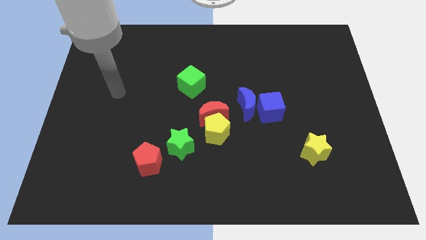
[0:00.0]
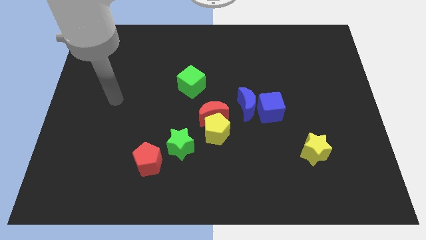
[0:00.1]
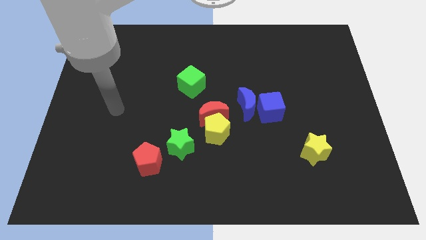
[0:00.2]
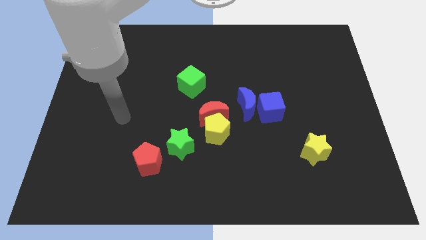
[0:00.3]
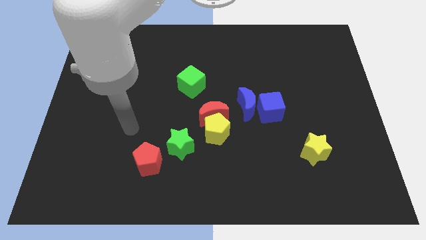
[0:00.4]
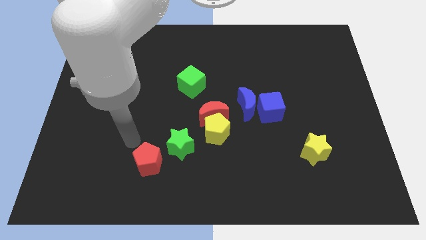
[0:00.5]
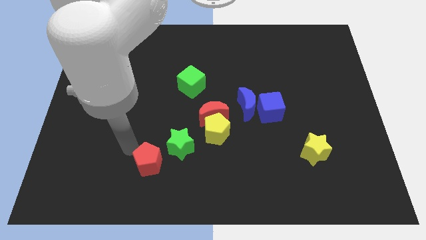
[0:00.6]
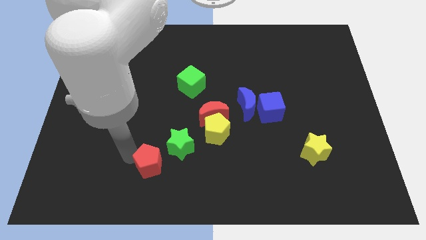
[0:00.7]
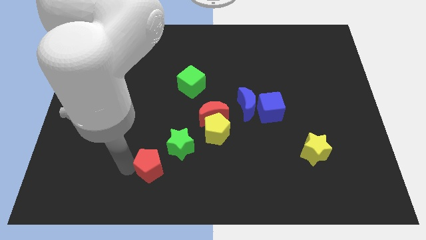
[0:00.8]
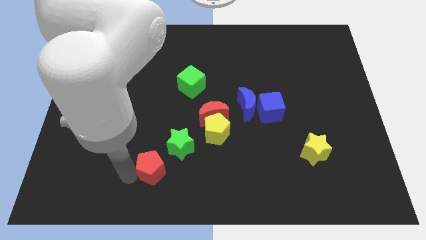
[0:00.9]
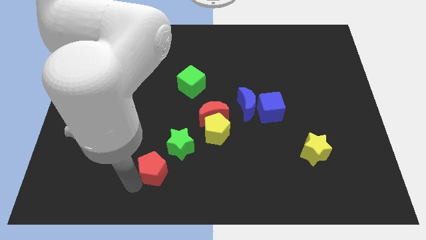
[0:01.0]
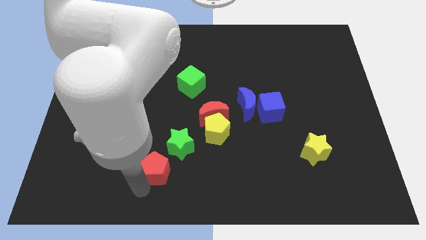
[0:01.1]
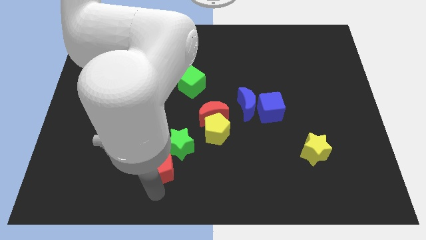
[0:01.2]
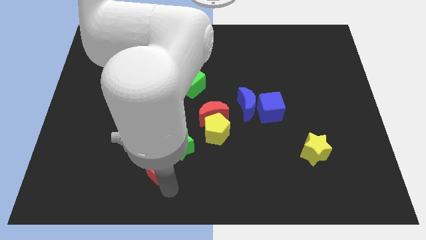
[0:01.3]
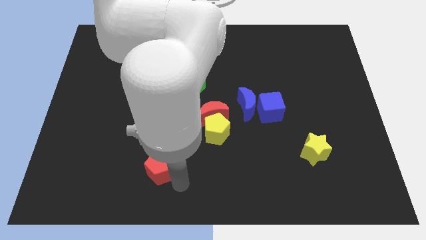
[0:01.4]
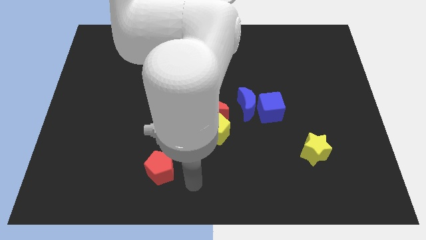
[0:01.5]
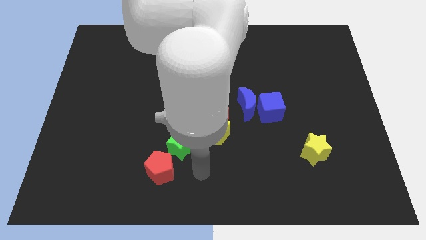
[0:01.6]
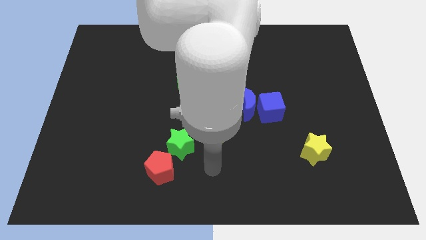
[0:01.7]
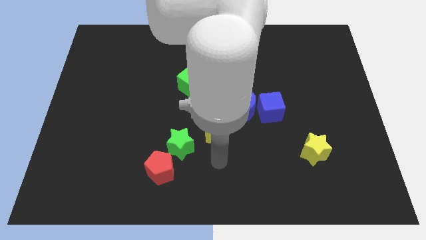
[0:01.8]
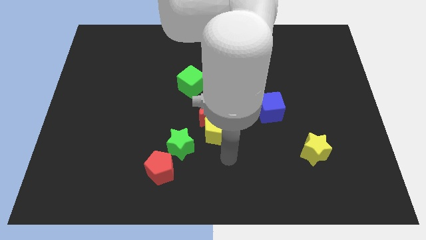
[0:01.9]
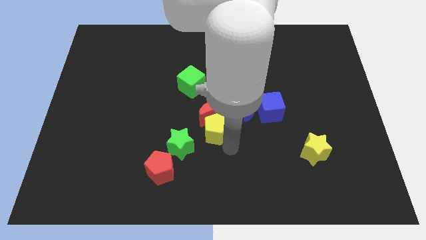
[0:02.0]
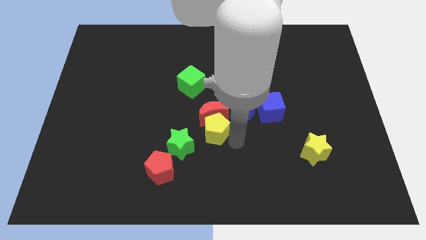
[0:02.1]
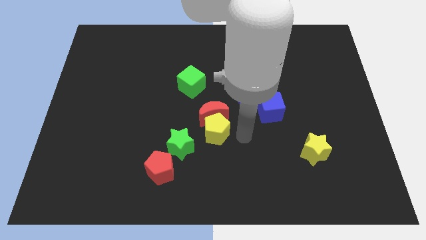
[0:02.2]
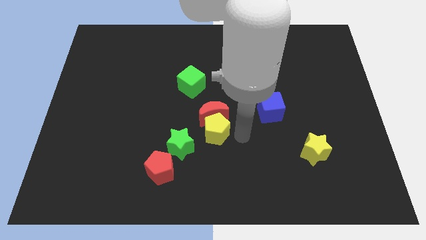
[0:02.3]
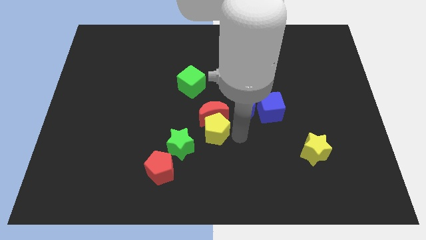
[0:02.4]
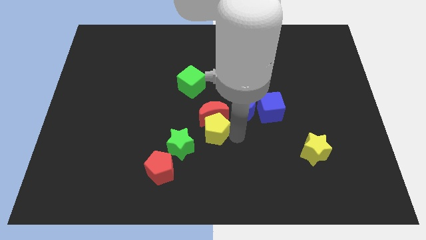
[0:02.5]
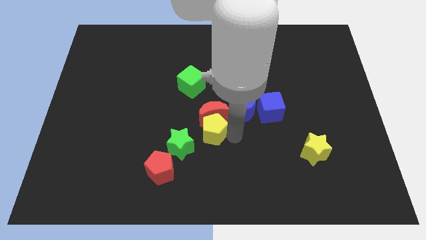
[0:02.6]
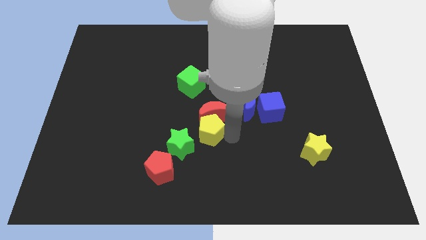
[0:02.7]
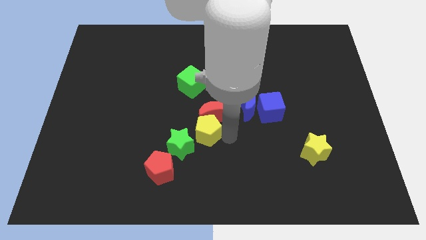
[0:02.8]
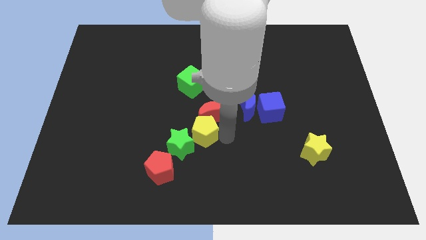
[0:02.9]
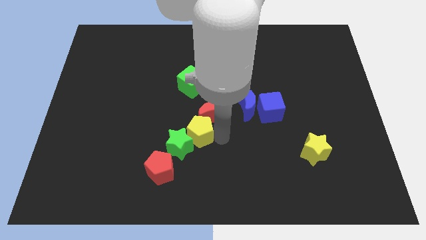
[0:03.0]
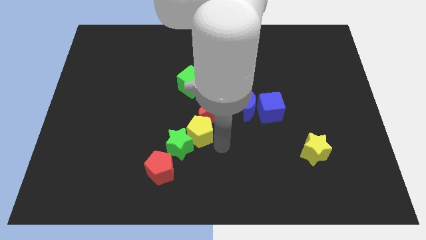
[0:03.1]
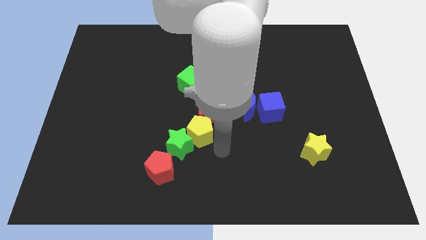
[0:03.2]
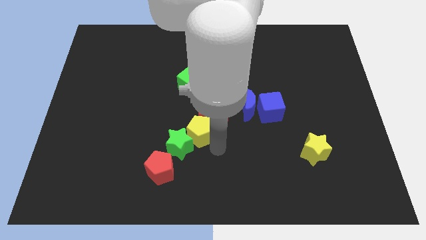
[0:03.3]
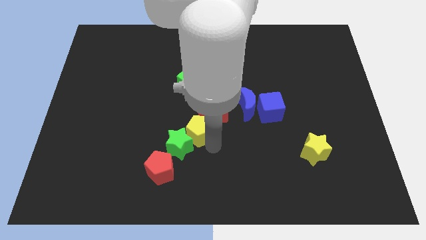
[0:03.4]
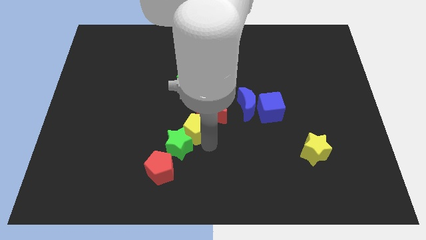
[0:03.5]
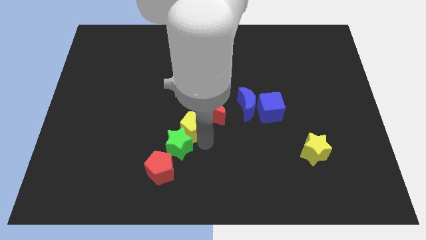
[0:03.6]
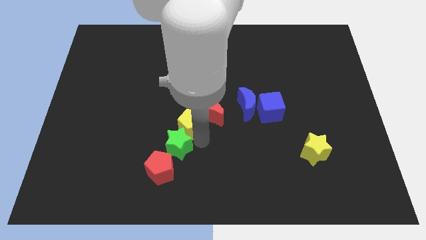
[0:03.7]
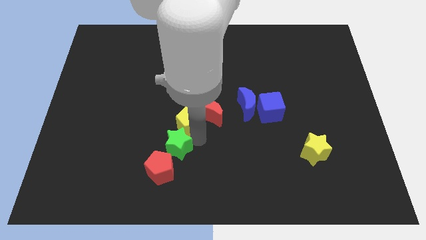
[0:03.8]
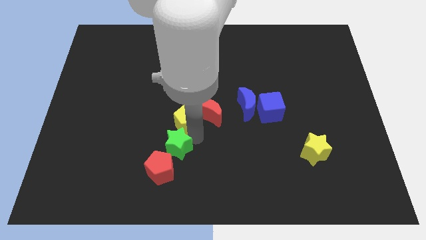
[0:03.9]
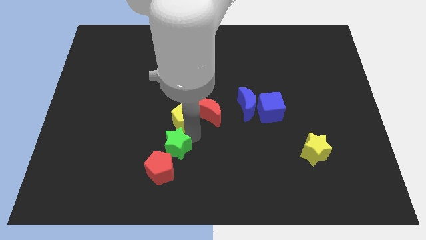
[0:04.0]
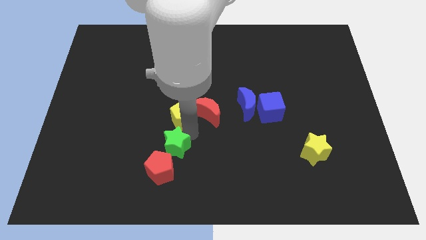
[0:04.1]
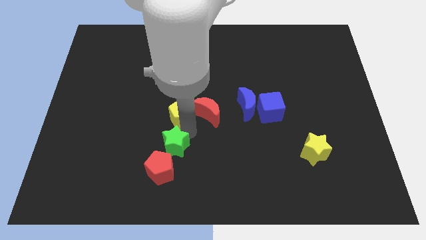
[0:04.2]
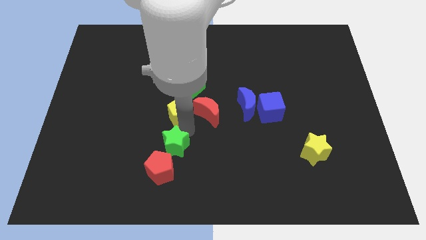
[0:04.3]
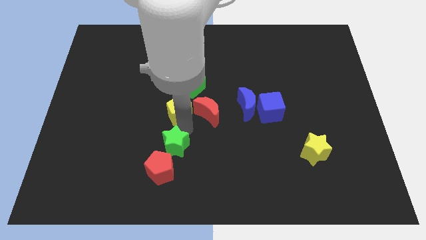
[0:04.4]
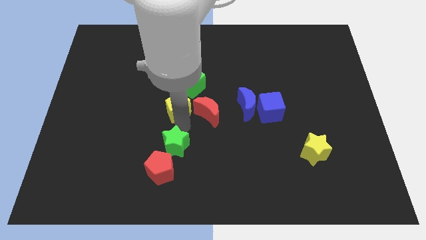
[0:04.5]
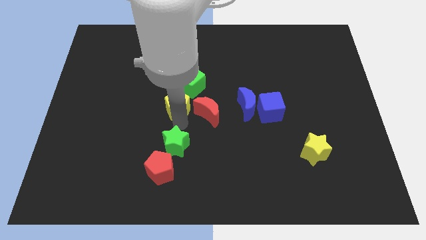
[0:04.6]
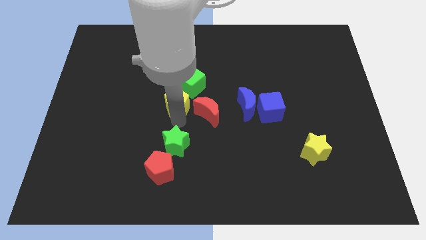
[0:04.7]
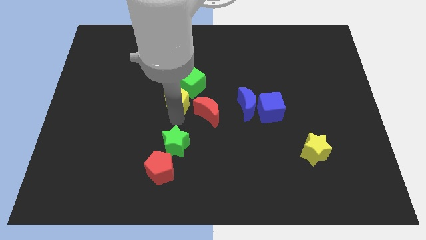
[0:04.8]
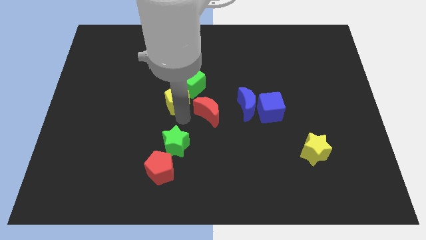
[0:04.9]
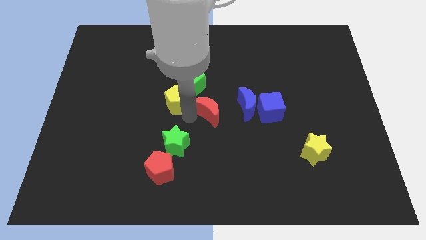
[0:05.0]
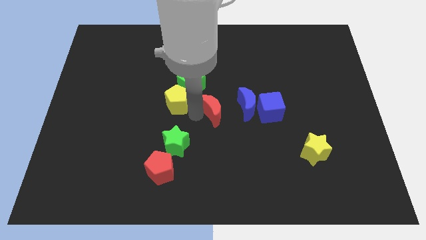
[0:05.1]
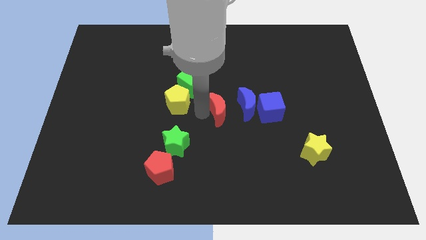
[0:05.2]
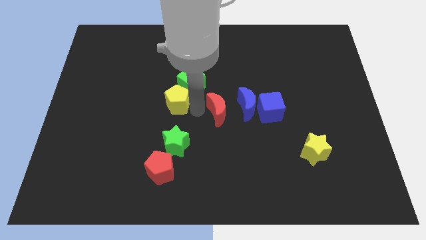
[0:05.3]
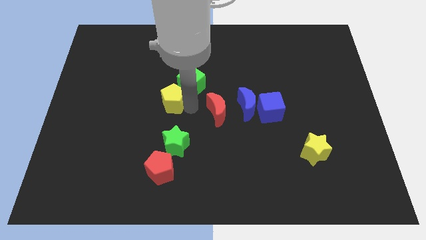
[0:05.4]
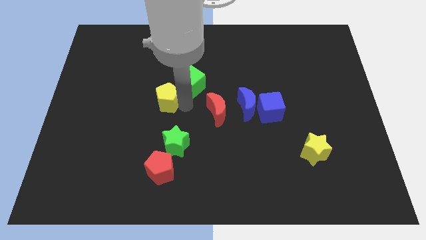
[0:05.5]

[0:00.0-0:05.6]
slide the yellow pentagon just left of the green cube

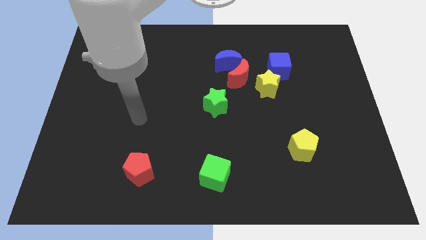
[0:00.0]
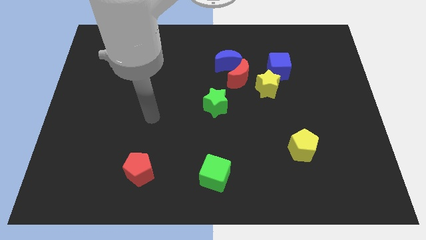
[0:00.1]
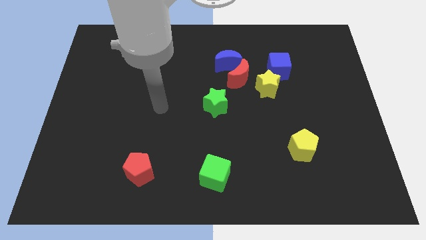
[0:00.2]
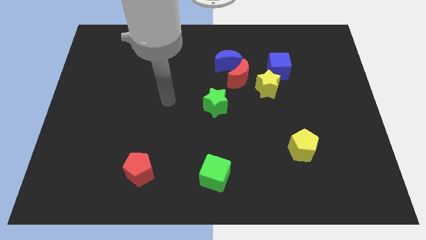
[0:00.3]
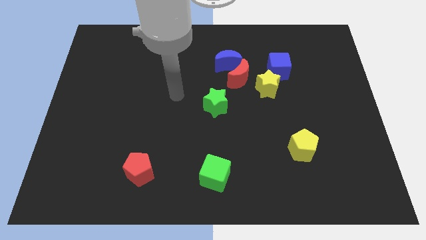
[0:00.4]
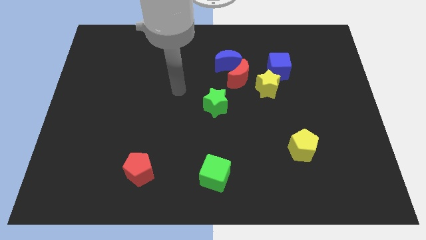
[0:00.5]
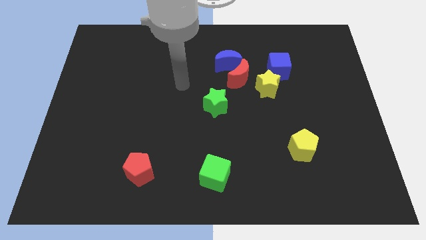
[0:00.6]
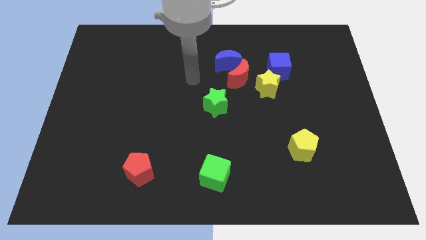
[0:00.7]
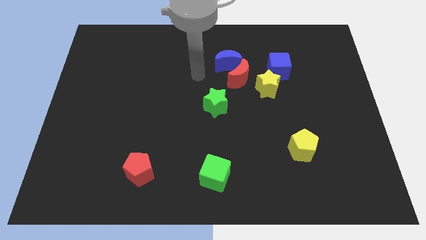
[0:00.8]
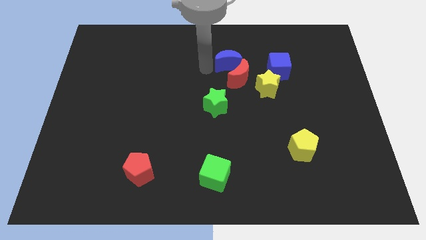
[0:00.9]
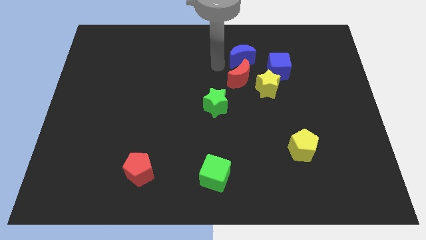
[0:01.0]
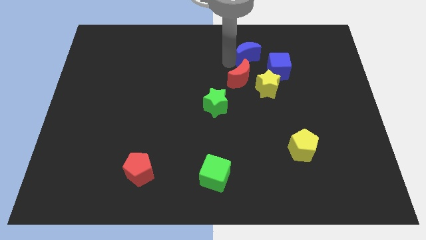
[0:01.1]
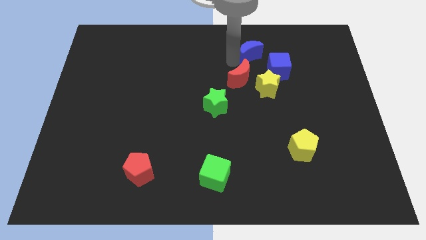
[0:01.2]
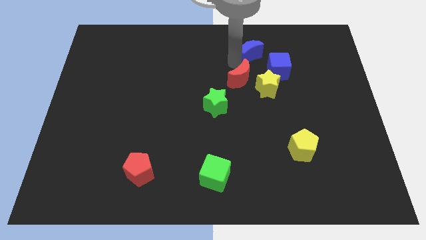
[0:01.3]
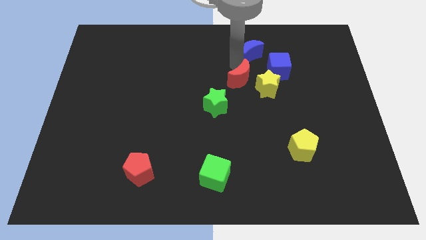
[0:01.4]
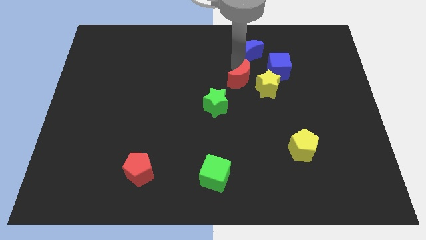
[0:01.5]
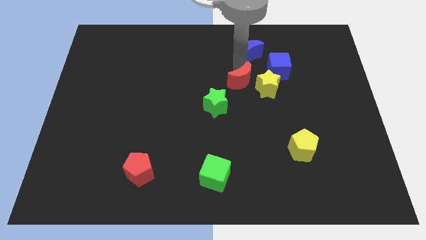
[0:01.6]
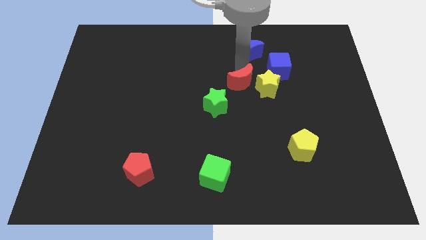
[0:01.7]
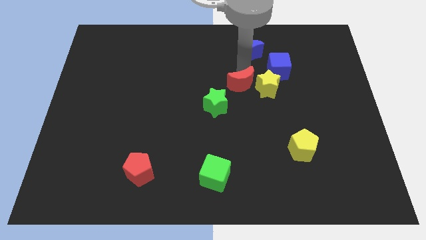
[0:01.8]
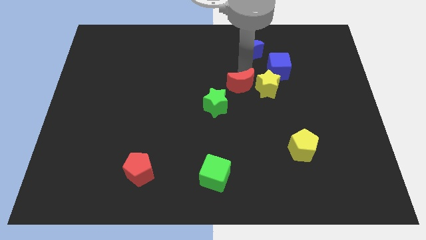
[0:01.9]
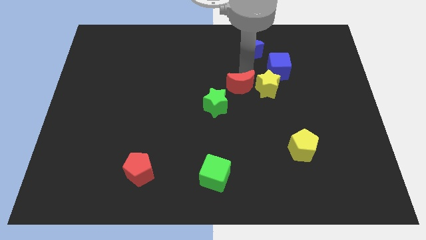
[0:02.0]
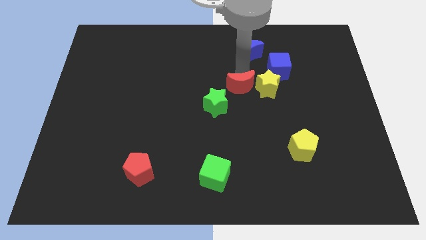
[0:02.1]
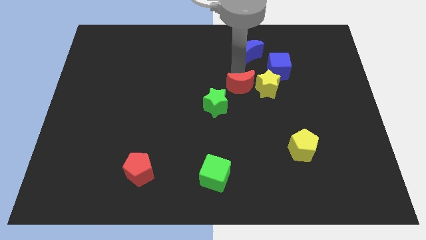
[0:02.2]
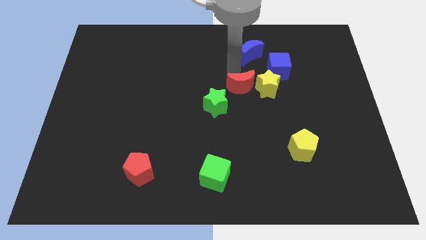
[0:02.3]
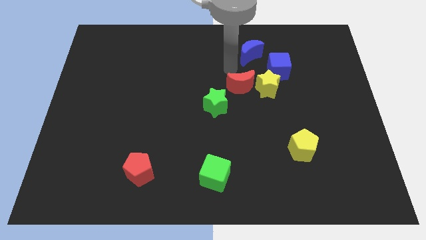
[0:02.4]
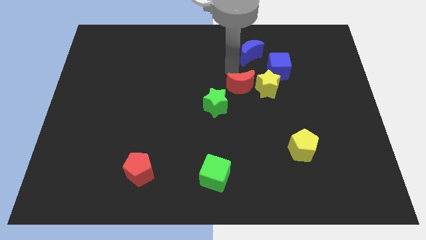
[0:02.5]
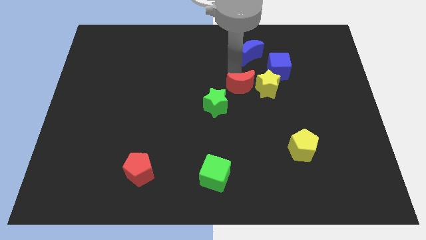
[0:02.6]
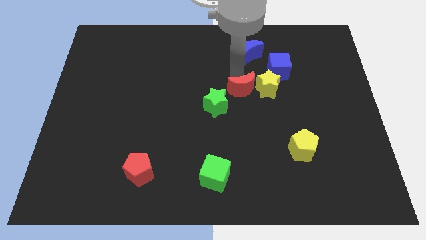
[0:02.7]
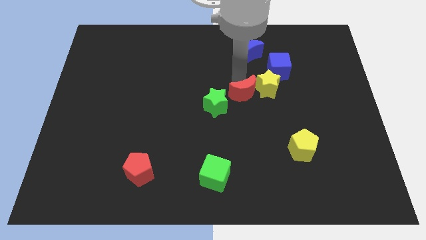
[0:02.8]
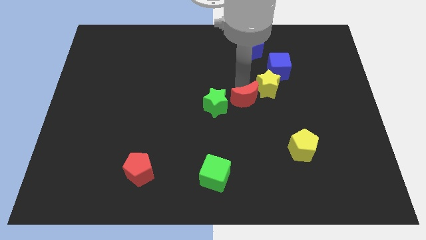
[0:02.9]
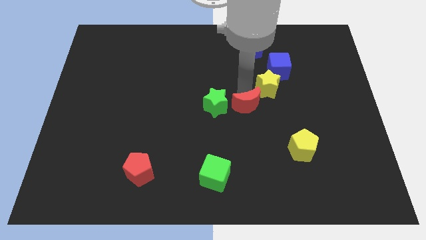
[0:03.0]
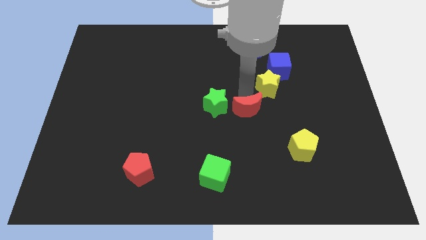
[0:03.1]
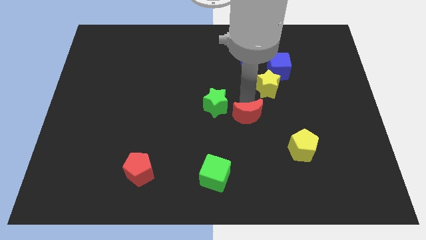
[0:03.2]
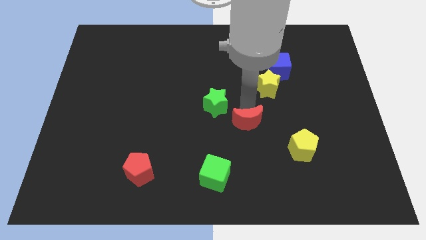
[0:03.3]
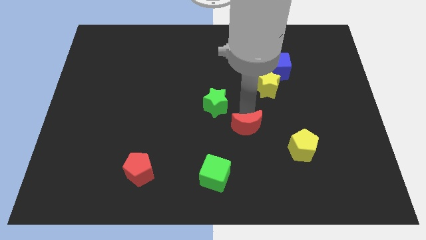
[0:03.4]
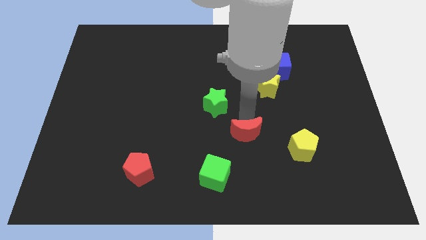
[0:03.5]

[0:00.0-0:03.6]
put the red moon to the left of the yellow pentagon
